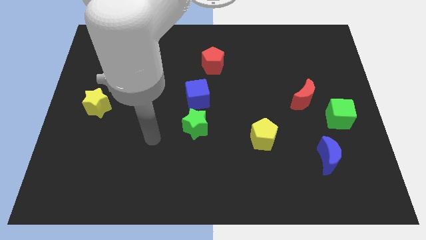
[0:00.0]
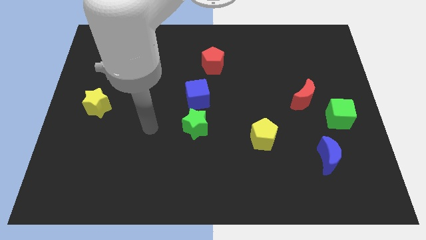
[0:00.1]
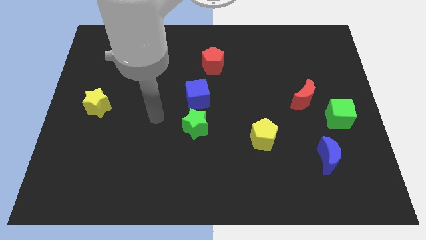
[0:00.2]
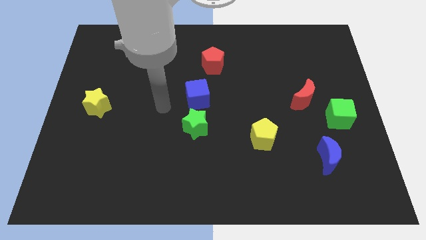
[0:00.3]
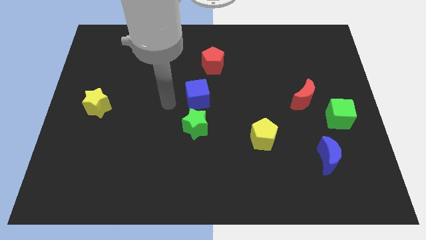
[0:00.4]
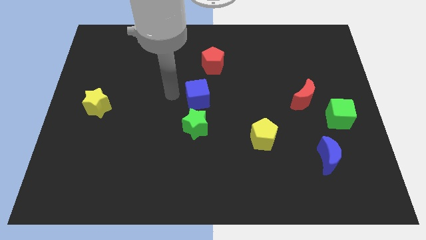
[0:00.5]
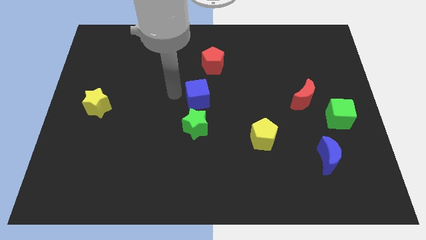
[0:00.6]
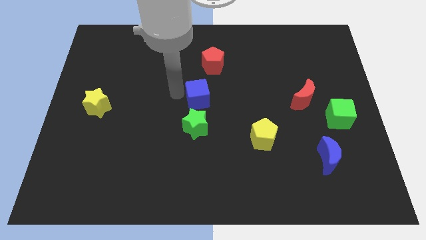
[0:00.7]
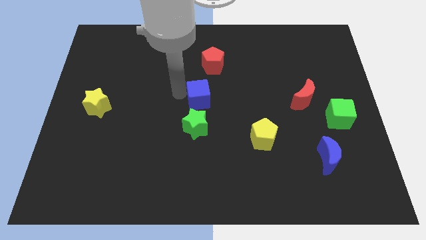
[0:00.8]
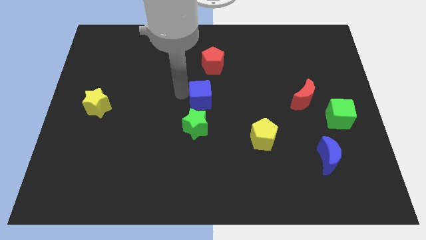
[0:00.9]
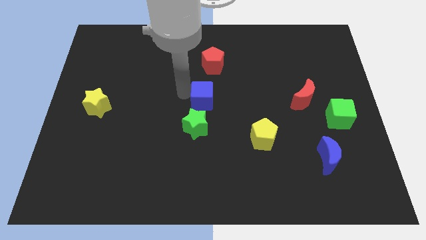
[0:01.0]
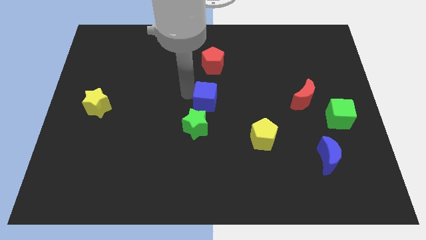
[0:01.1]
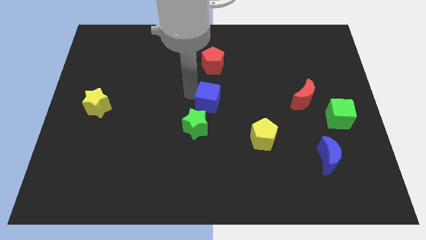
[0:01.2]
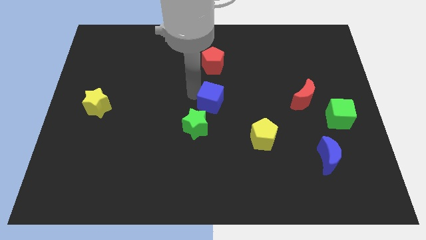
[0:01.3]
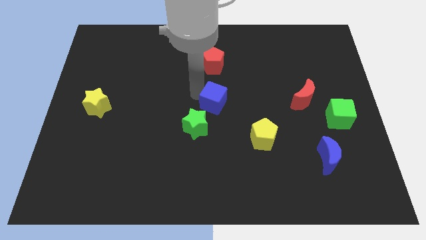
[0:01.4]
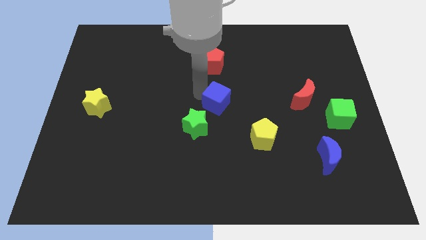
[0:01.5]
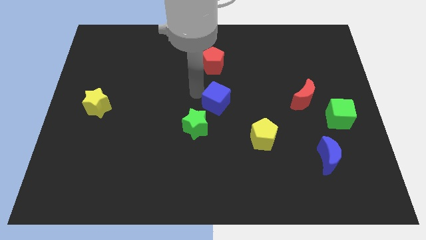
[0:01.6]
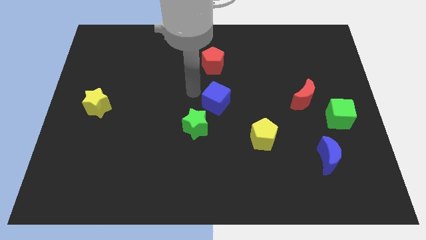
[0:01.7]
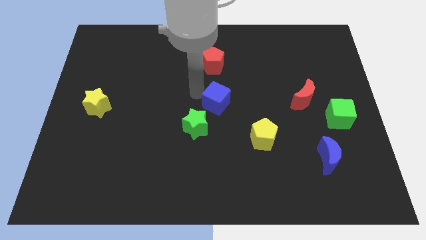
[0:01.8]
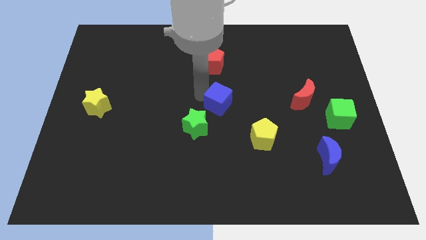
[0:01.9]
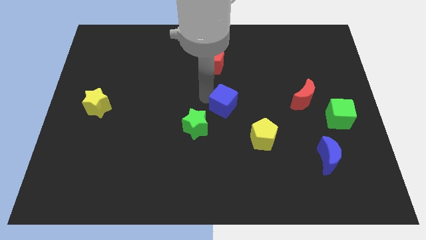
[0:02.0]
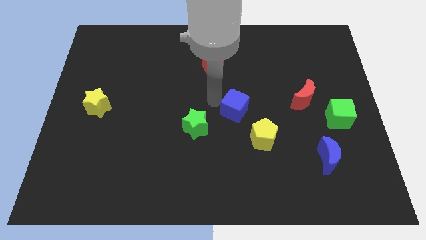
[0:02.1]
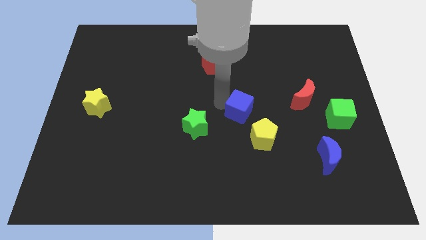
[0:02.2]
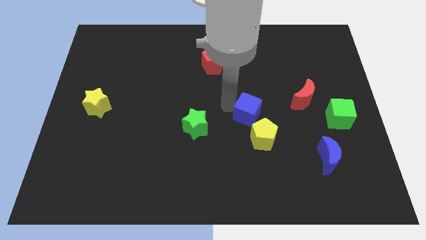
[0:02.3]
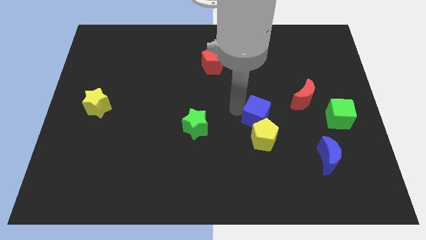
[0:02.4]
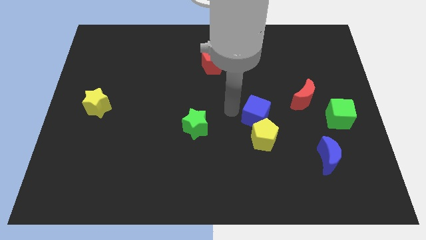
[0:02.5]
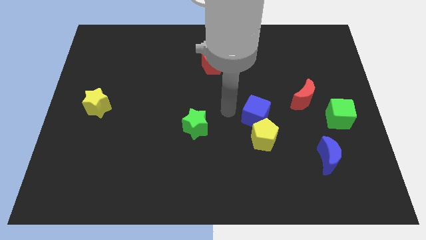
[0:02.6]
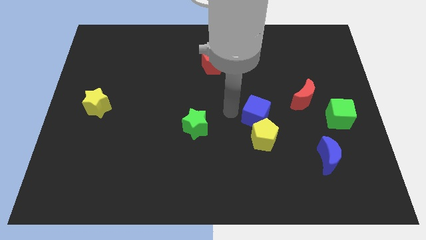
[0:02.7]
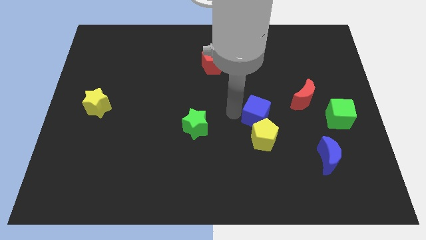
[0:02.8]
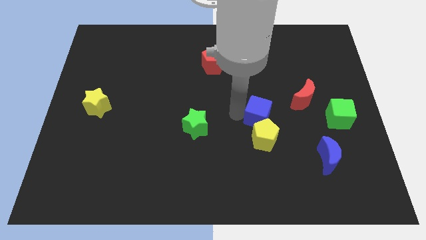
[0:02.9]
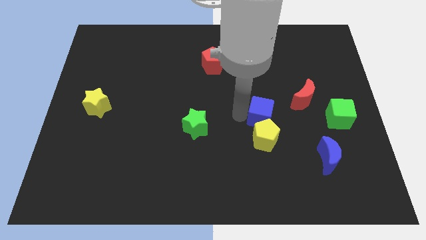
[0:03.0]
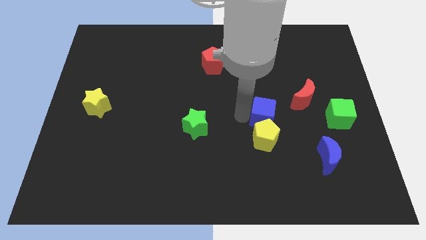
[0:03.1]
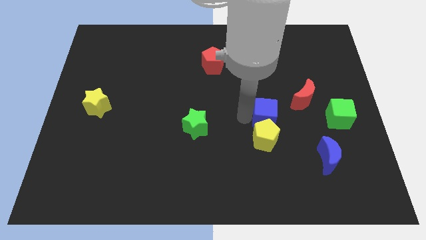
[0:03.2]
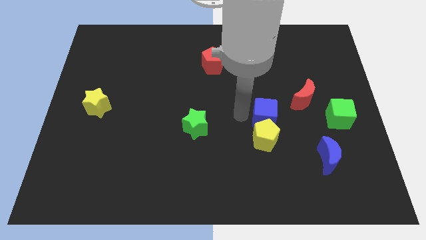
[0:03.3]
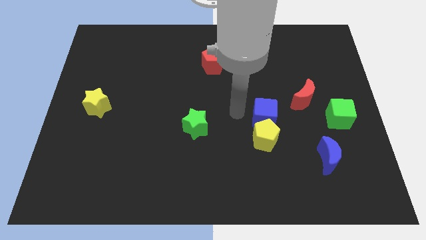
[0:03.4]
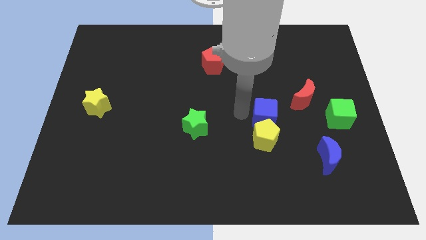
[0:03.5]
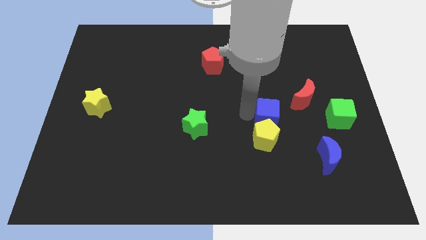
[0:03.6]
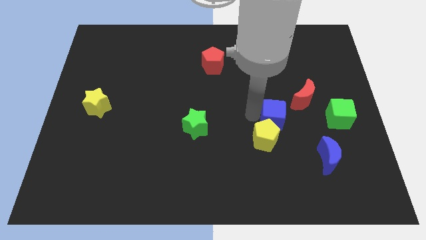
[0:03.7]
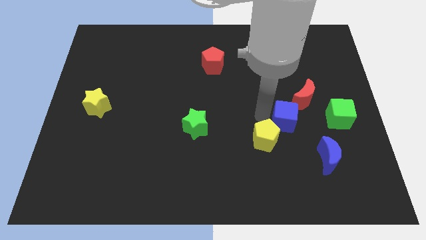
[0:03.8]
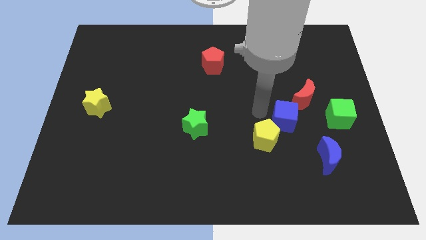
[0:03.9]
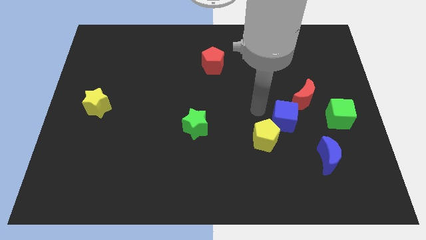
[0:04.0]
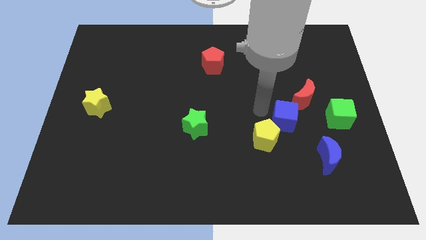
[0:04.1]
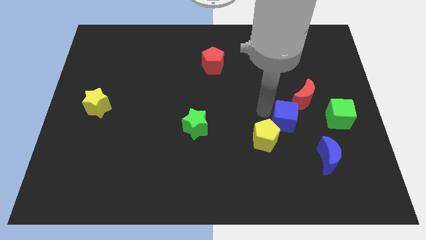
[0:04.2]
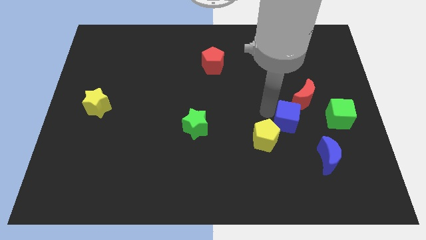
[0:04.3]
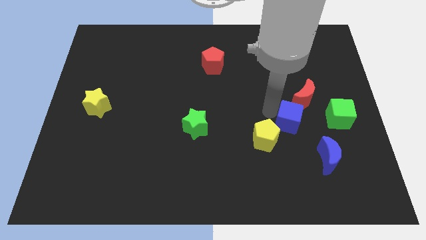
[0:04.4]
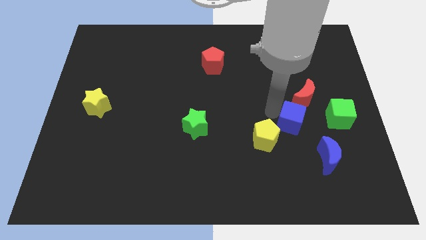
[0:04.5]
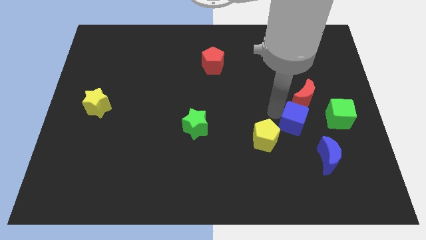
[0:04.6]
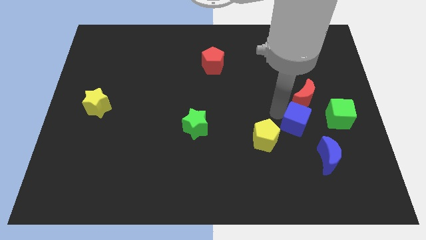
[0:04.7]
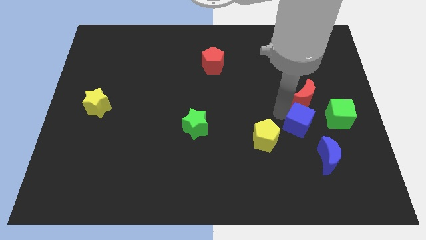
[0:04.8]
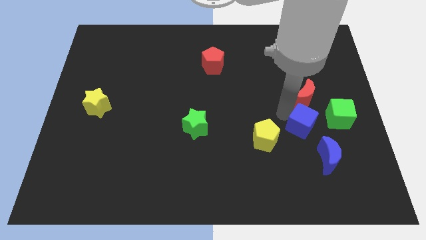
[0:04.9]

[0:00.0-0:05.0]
push the blue cube to the bottom left of the green cube

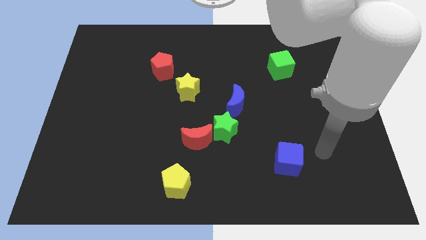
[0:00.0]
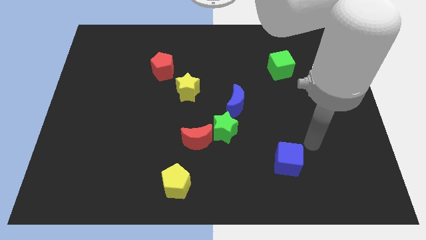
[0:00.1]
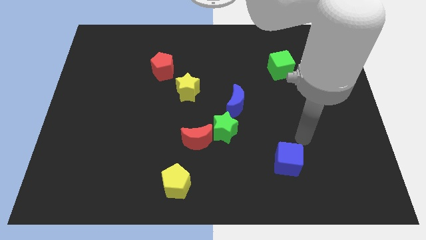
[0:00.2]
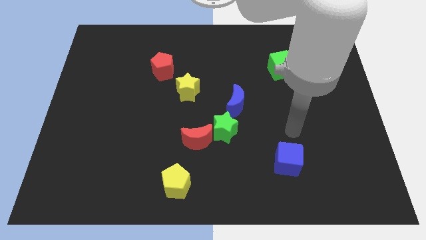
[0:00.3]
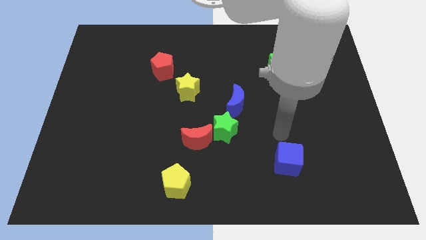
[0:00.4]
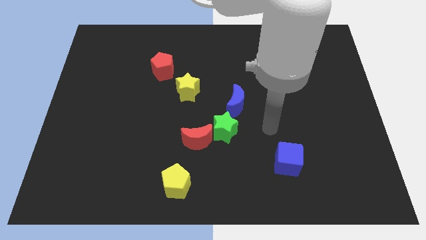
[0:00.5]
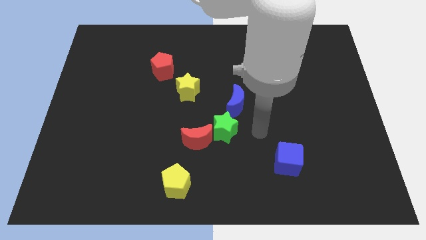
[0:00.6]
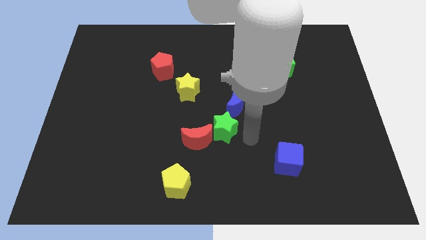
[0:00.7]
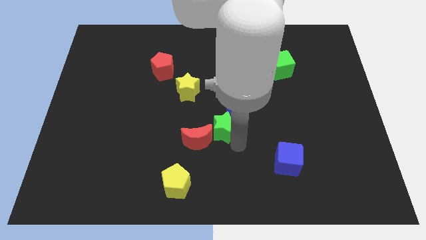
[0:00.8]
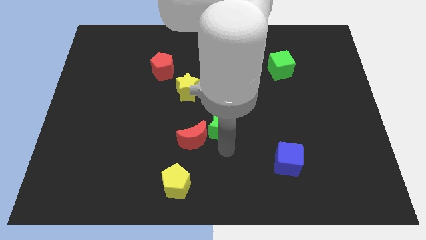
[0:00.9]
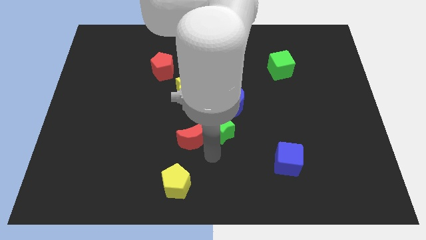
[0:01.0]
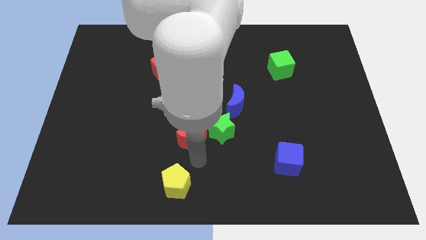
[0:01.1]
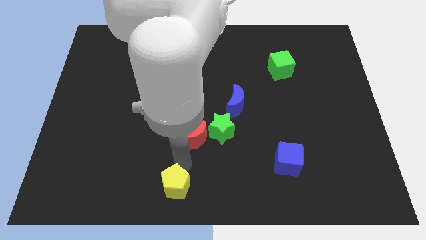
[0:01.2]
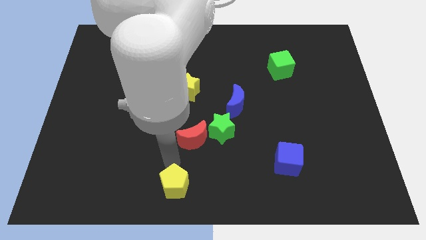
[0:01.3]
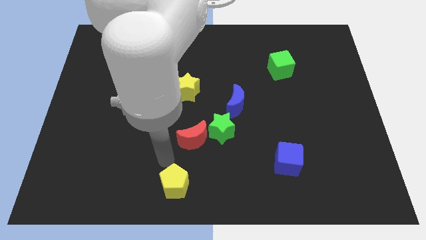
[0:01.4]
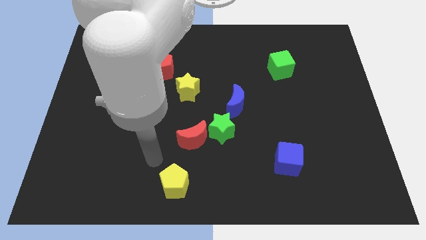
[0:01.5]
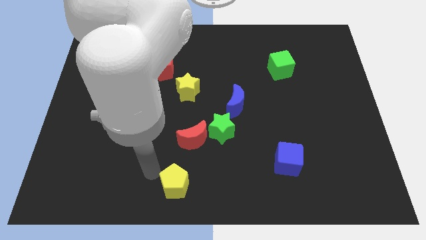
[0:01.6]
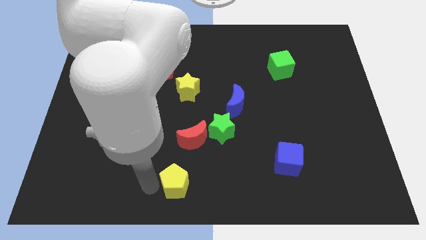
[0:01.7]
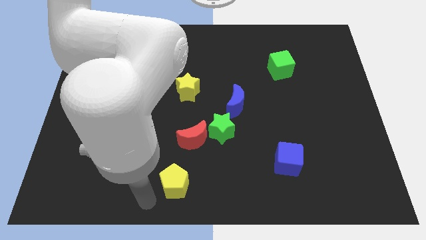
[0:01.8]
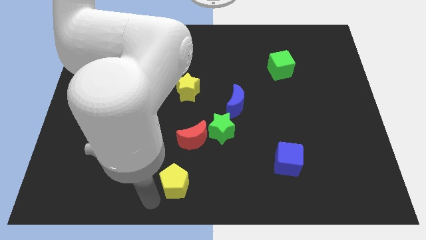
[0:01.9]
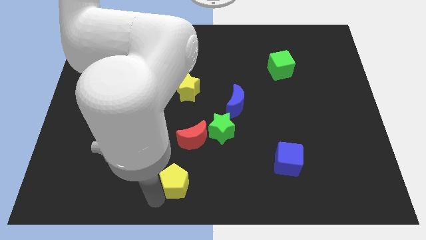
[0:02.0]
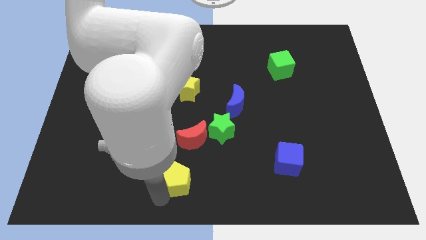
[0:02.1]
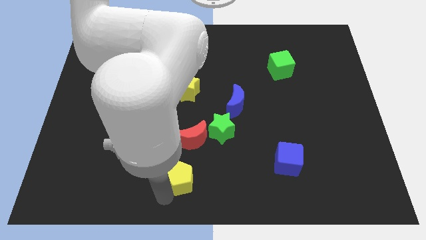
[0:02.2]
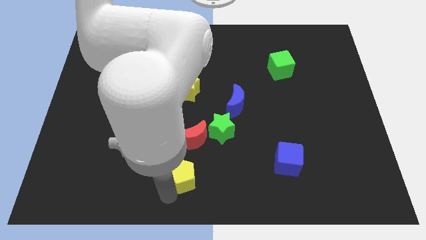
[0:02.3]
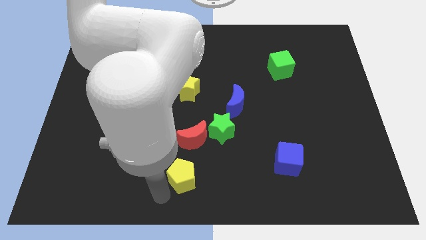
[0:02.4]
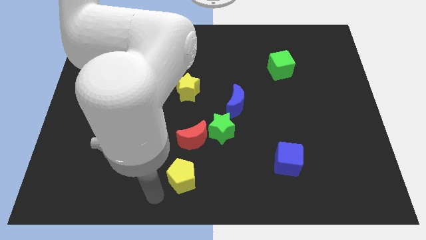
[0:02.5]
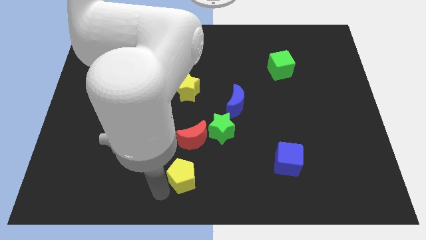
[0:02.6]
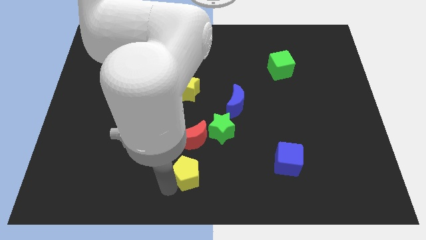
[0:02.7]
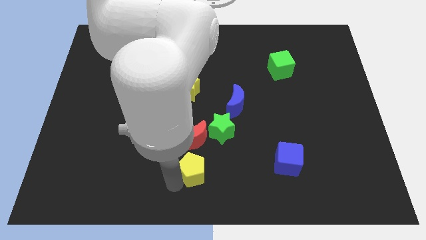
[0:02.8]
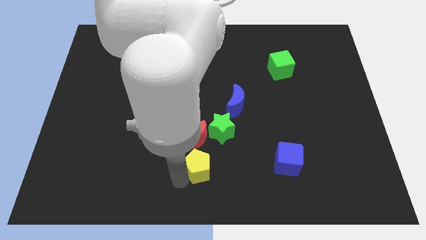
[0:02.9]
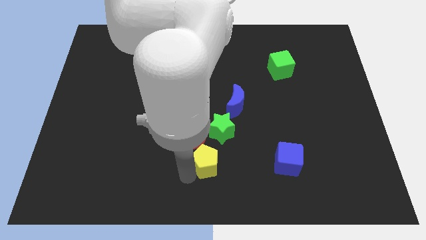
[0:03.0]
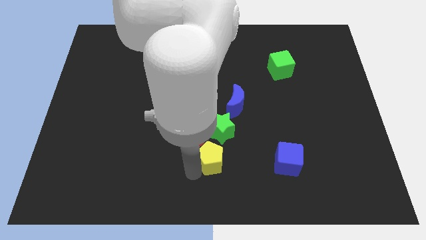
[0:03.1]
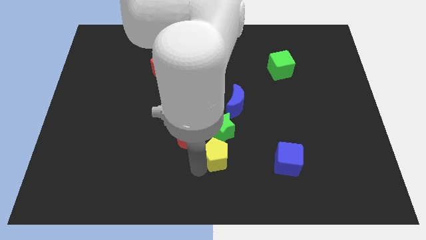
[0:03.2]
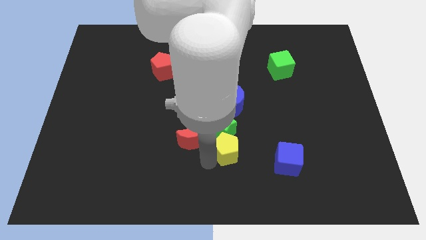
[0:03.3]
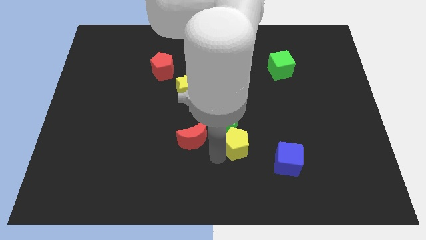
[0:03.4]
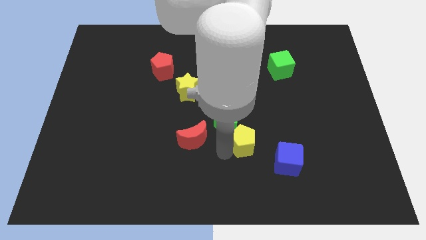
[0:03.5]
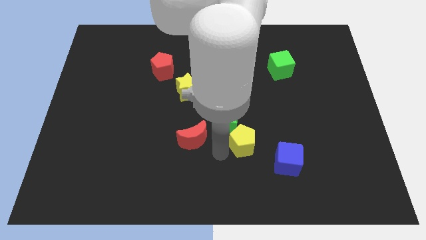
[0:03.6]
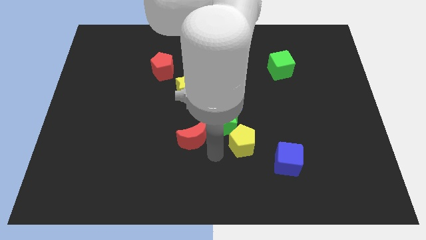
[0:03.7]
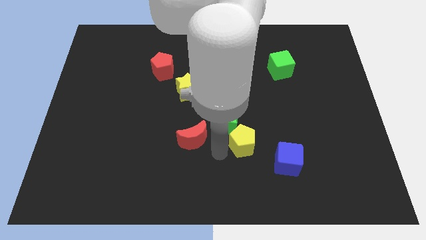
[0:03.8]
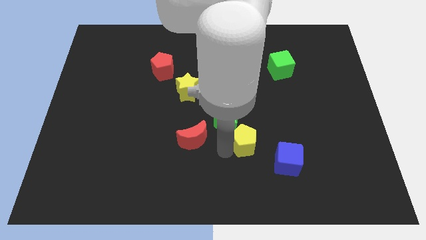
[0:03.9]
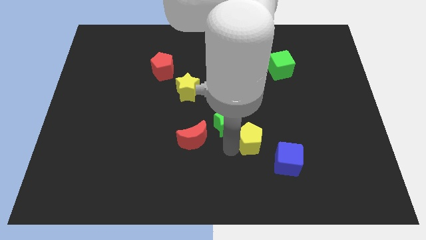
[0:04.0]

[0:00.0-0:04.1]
push the yellow pentagon to the right of the green star
